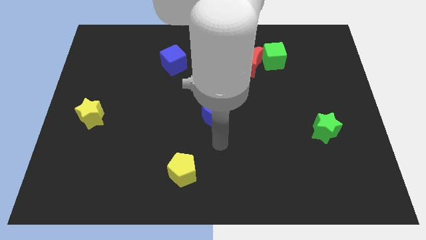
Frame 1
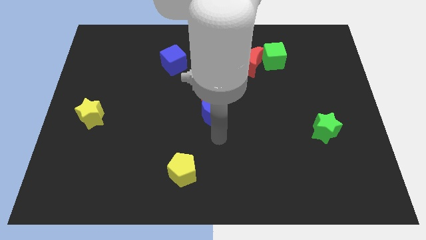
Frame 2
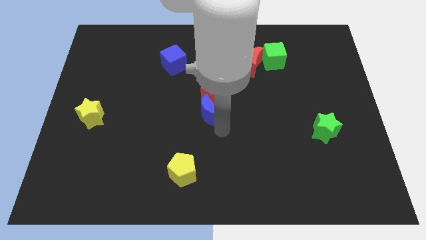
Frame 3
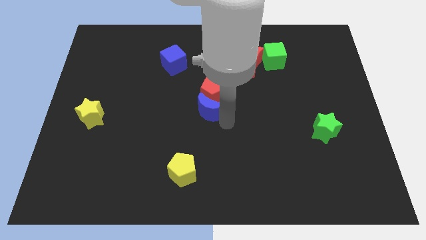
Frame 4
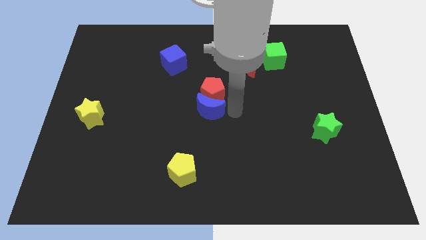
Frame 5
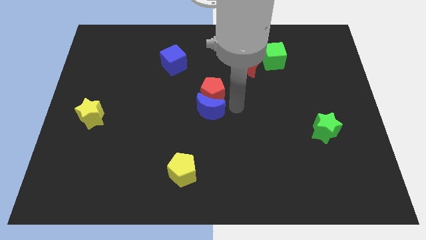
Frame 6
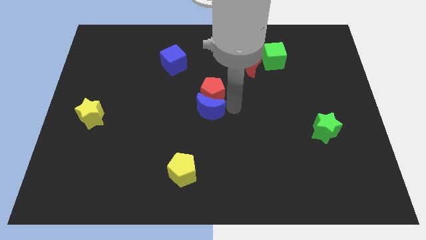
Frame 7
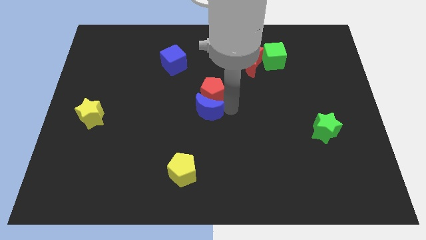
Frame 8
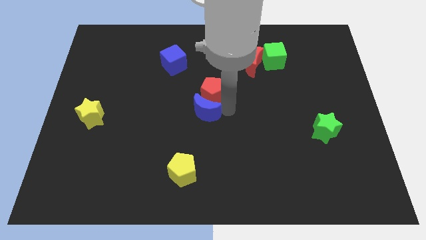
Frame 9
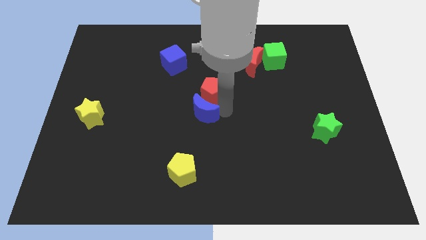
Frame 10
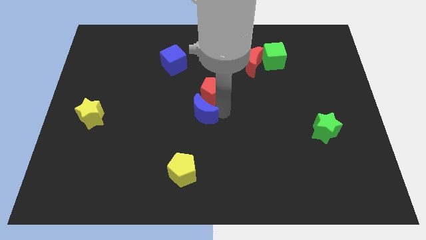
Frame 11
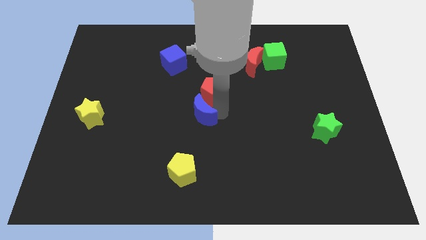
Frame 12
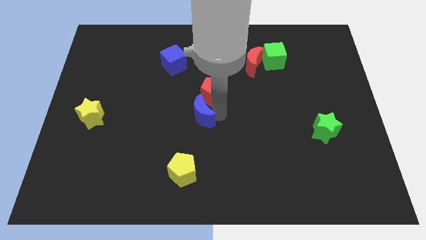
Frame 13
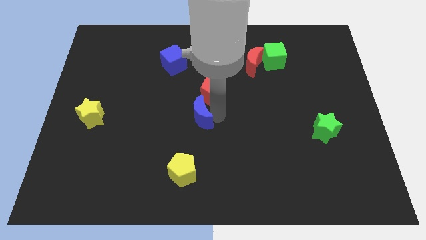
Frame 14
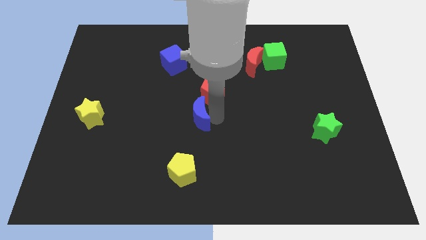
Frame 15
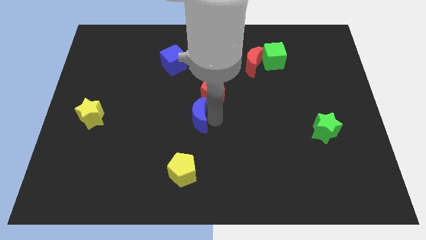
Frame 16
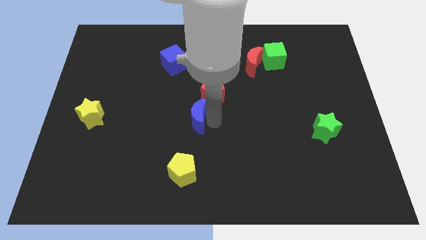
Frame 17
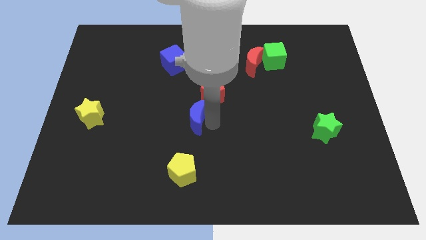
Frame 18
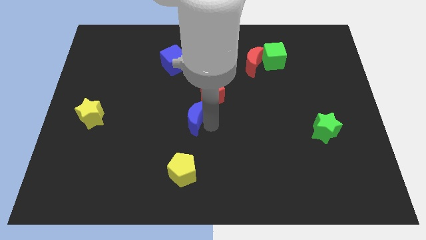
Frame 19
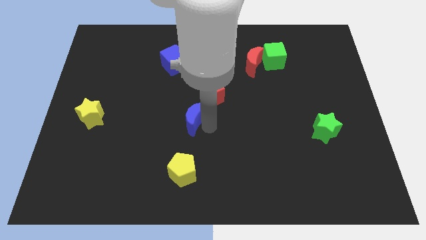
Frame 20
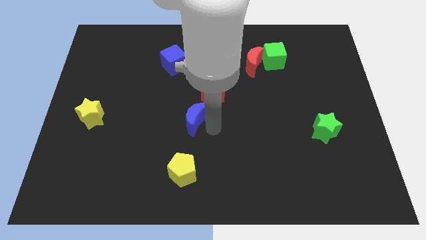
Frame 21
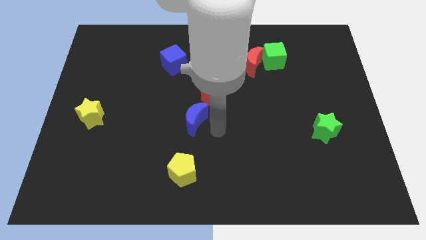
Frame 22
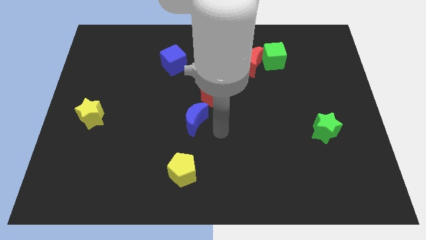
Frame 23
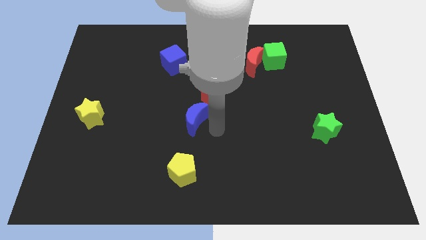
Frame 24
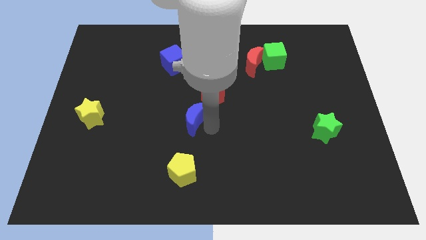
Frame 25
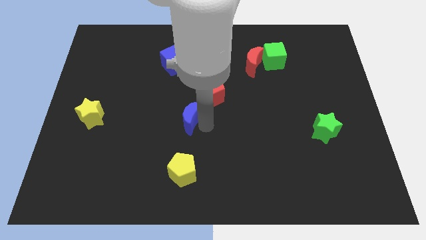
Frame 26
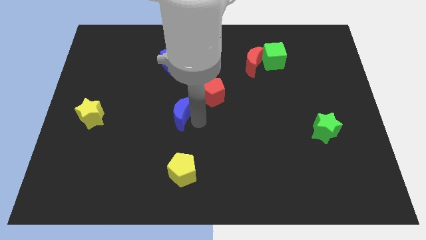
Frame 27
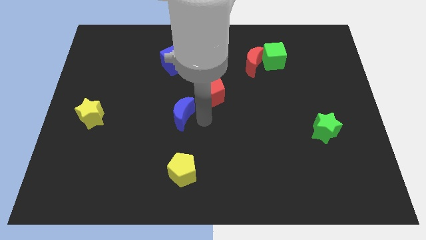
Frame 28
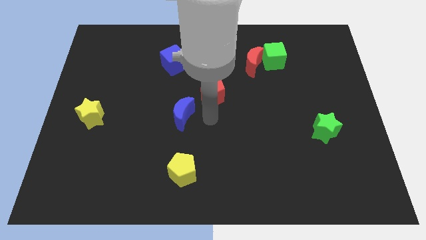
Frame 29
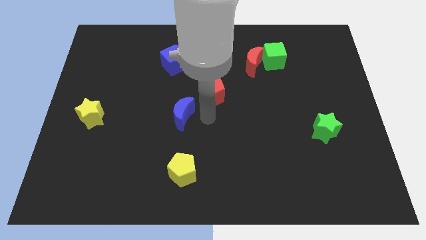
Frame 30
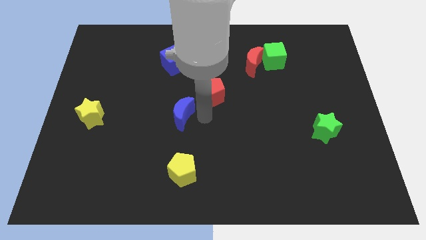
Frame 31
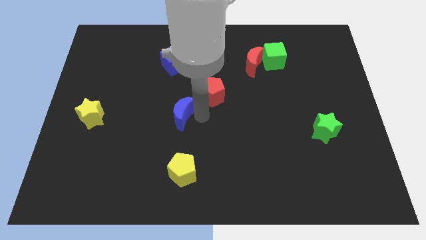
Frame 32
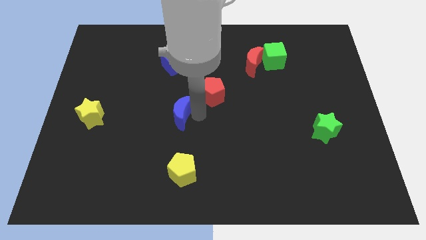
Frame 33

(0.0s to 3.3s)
push the blue moon to the left slightly

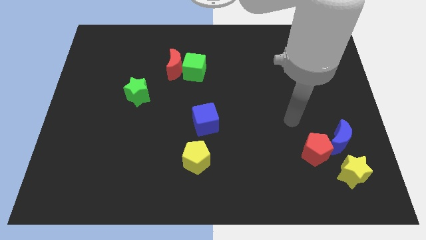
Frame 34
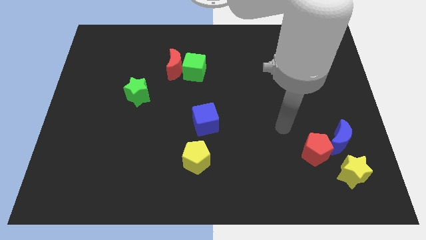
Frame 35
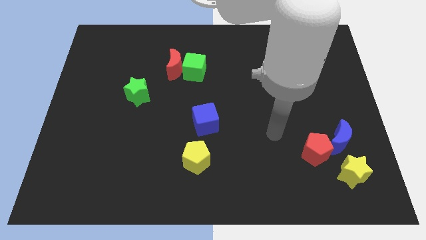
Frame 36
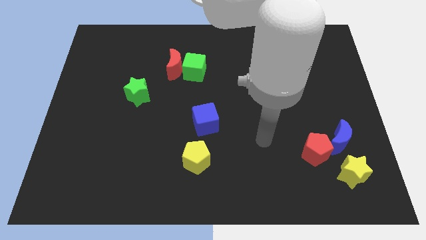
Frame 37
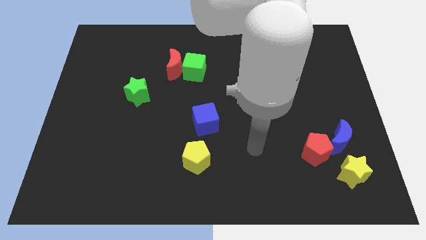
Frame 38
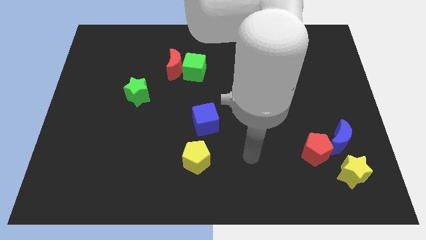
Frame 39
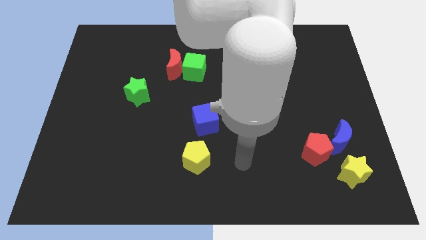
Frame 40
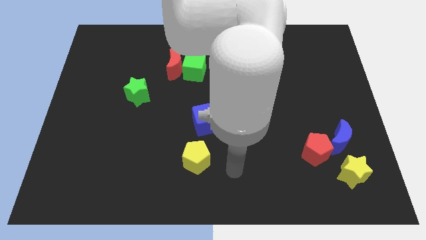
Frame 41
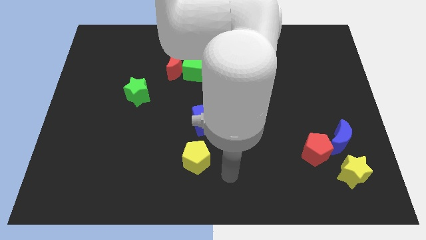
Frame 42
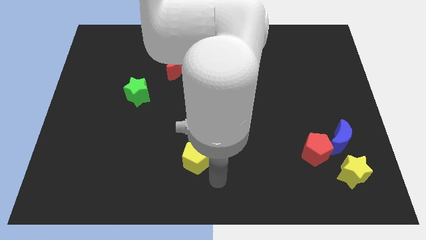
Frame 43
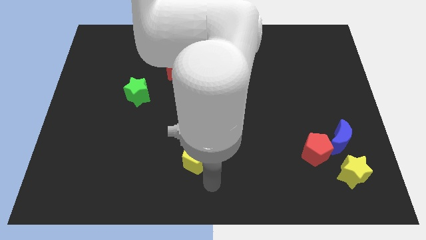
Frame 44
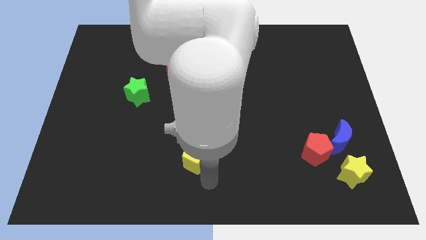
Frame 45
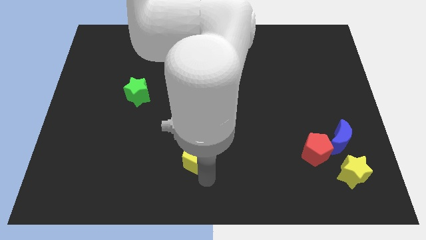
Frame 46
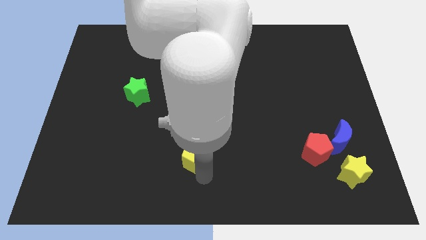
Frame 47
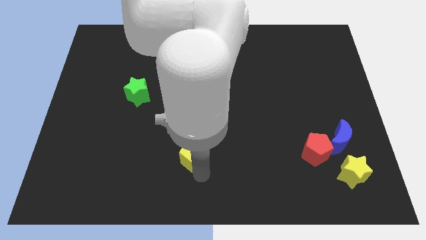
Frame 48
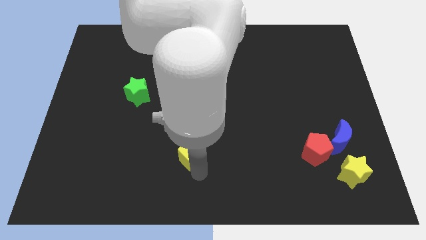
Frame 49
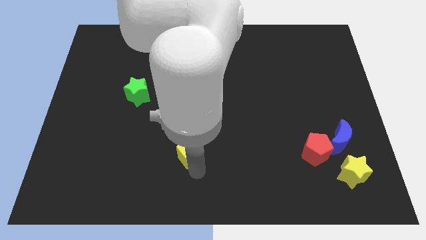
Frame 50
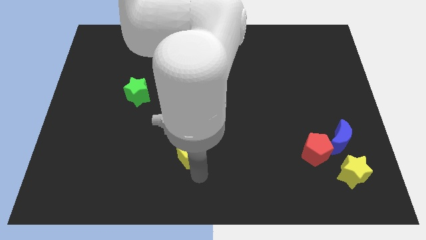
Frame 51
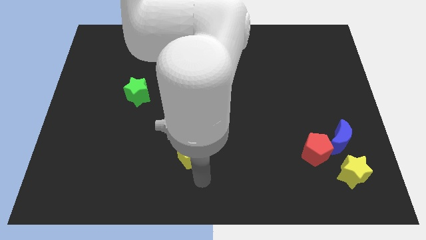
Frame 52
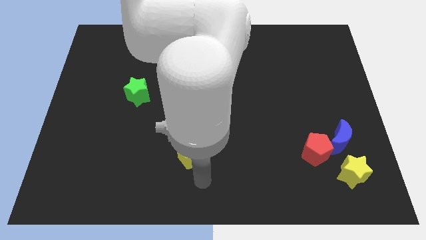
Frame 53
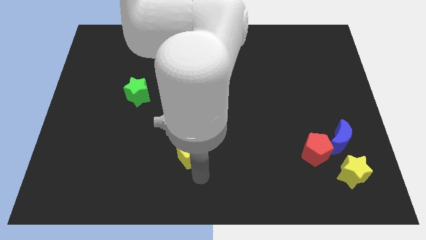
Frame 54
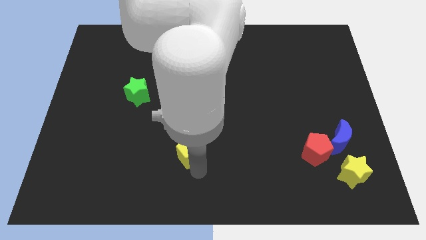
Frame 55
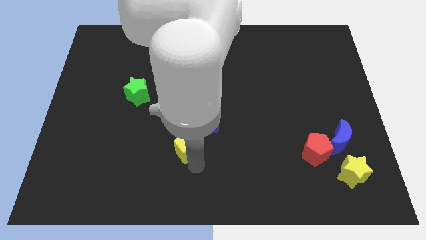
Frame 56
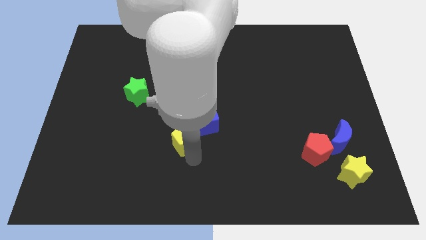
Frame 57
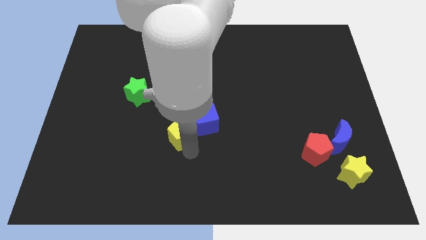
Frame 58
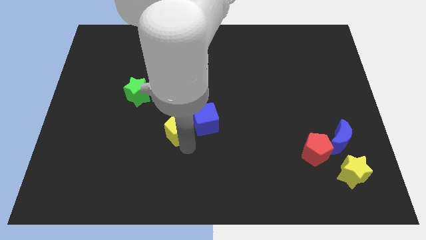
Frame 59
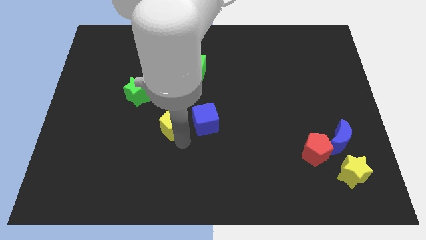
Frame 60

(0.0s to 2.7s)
slightly slide the yellow pentagon up

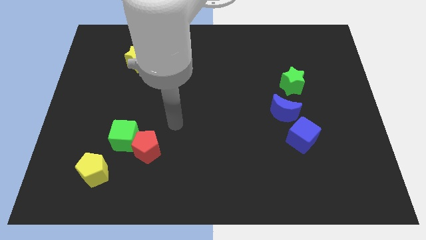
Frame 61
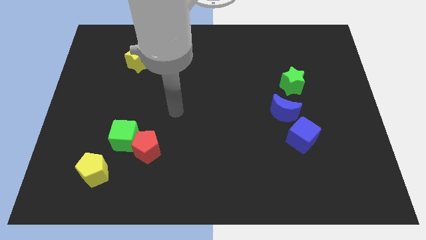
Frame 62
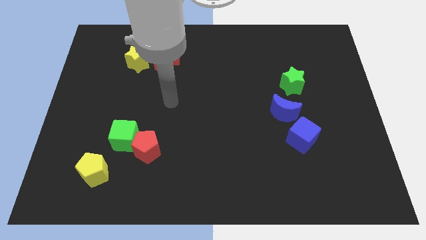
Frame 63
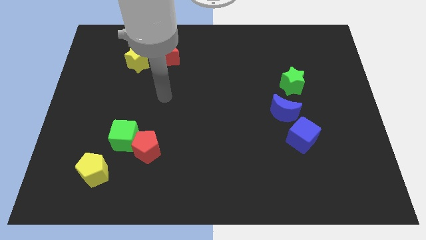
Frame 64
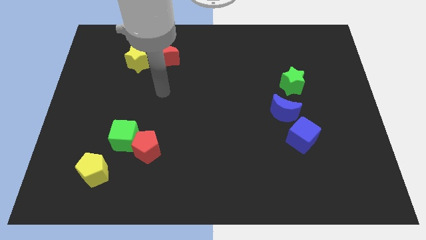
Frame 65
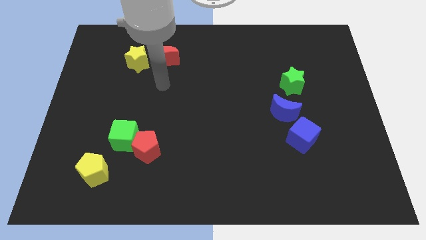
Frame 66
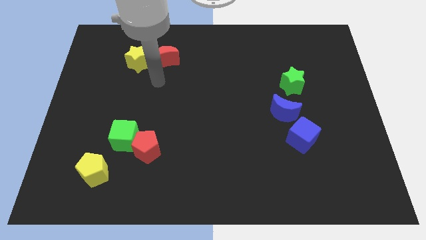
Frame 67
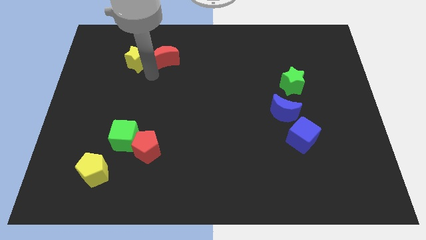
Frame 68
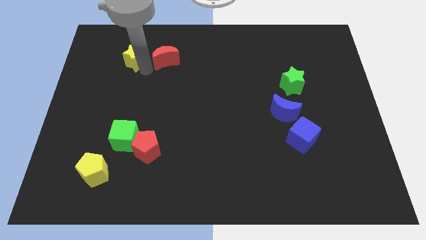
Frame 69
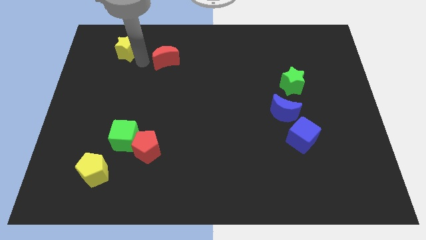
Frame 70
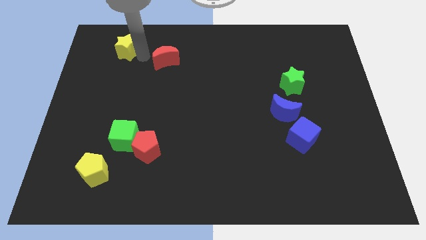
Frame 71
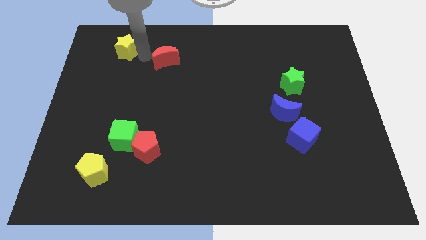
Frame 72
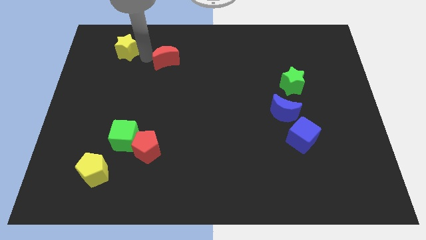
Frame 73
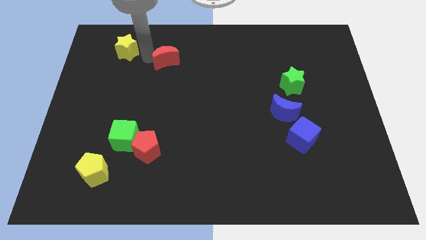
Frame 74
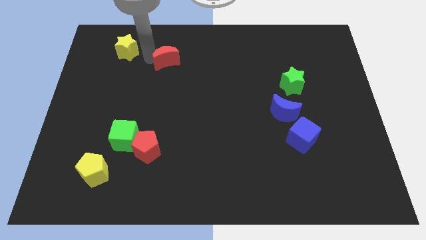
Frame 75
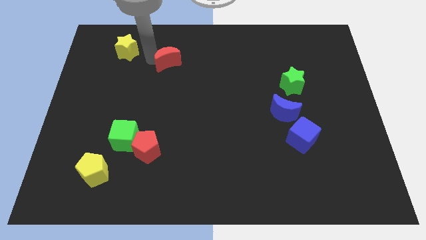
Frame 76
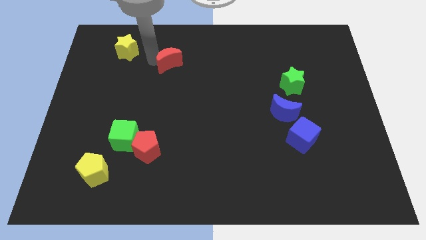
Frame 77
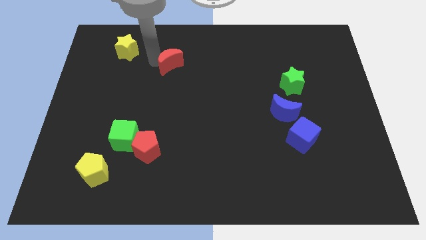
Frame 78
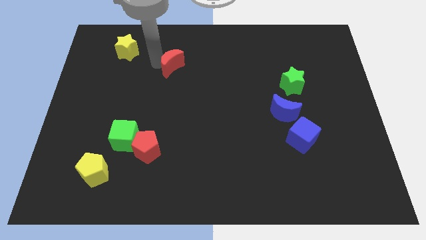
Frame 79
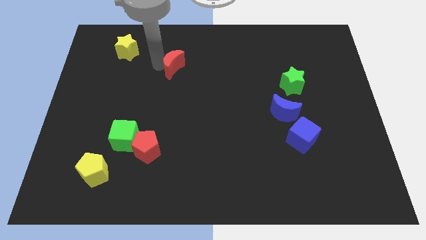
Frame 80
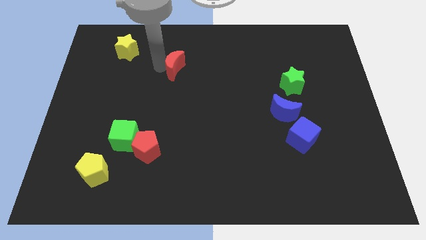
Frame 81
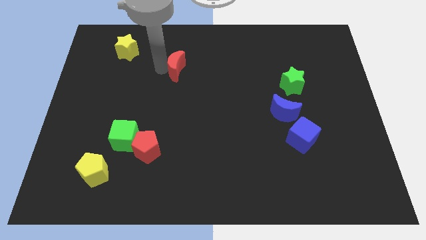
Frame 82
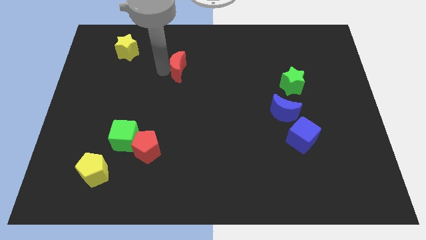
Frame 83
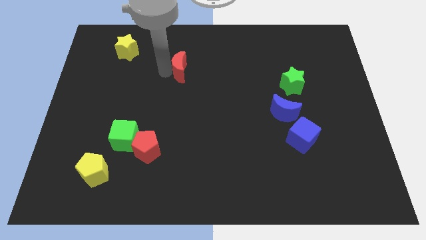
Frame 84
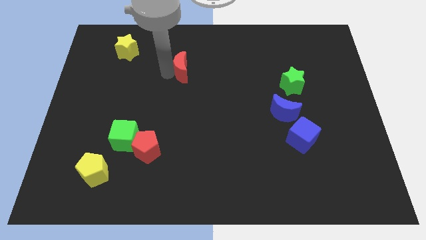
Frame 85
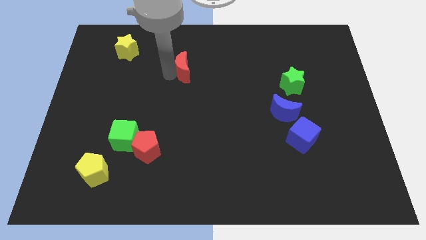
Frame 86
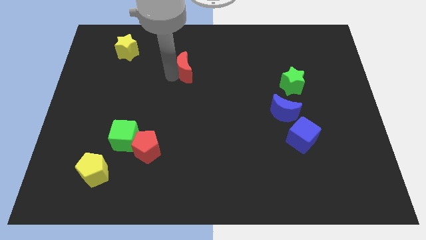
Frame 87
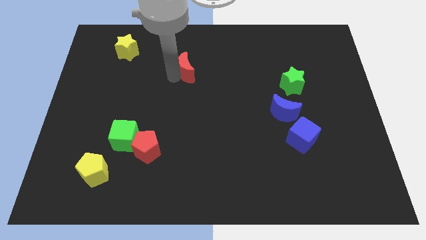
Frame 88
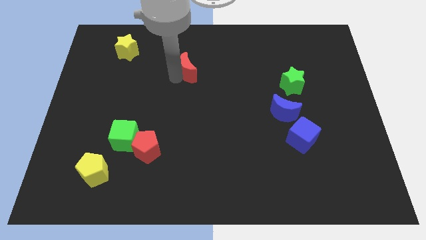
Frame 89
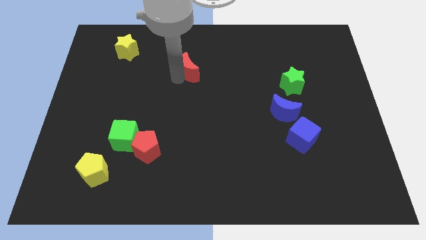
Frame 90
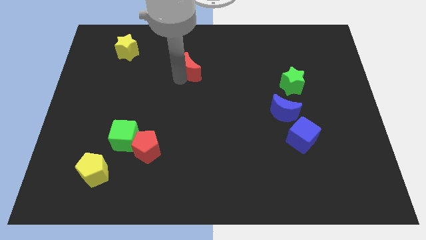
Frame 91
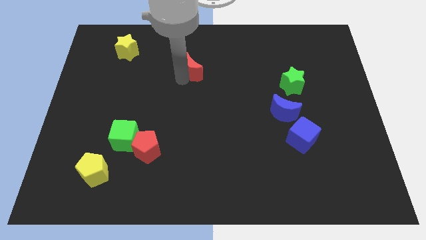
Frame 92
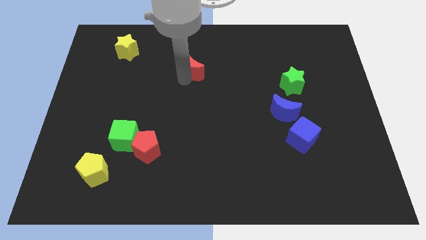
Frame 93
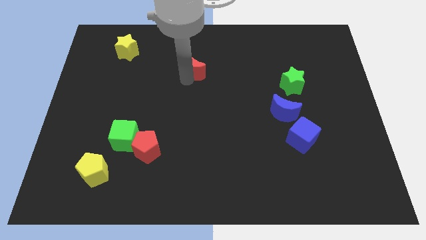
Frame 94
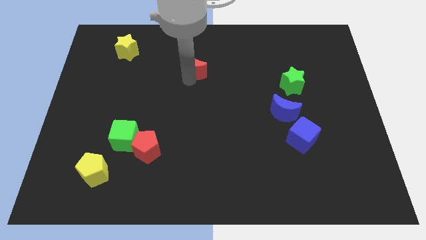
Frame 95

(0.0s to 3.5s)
move the red moon right somewhat
